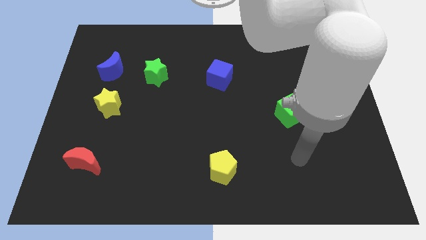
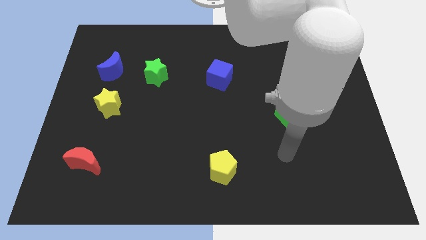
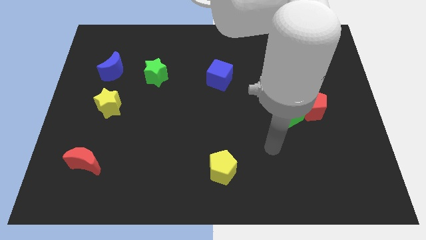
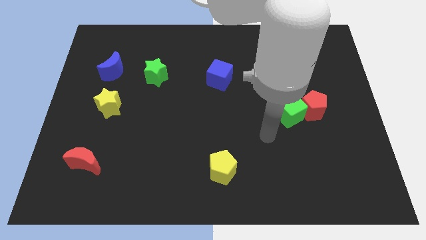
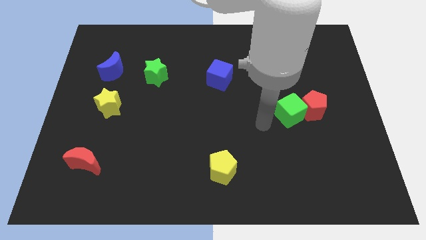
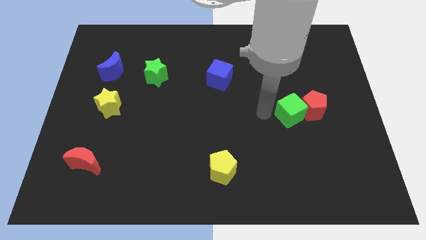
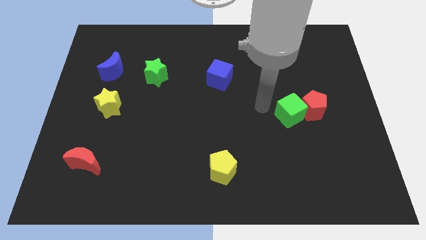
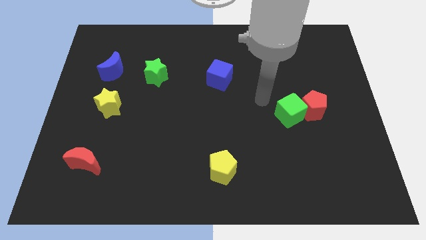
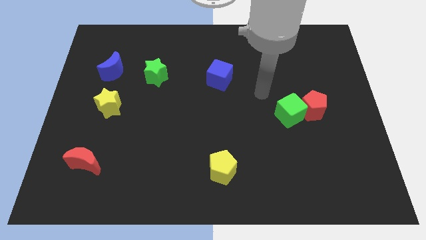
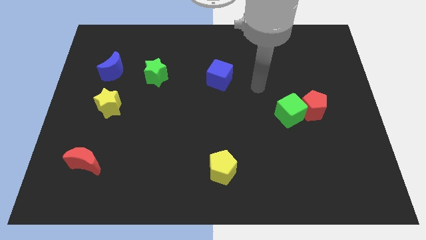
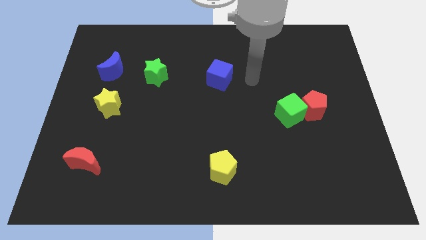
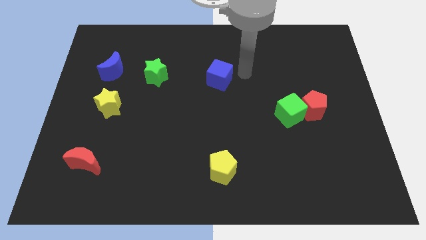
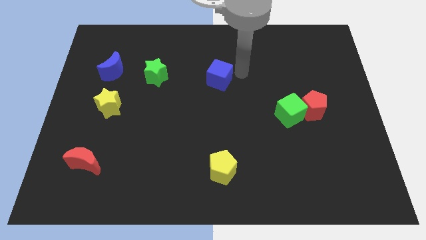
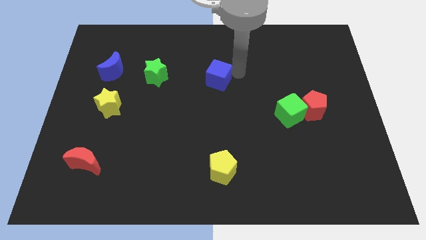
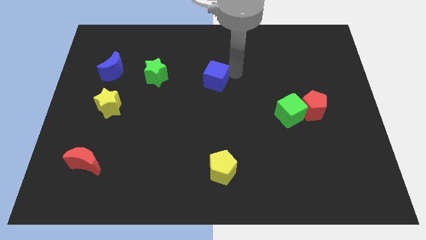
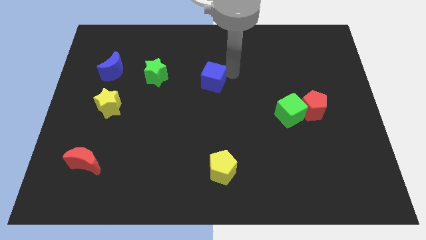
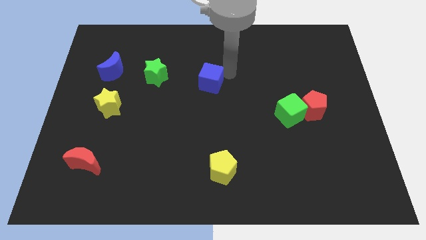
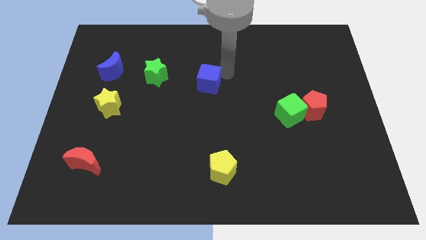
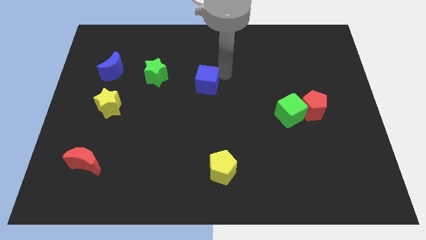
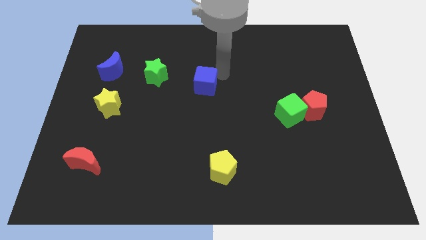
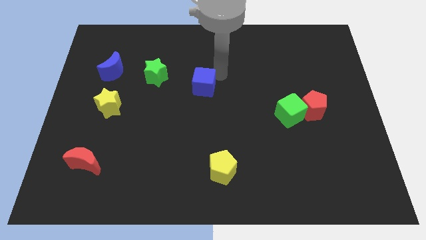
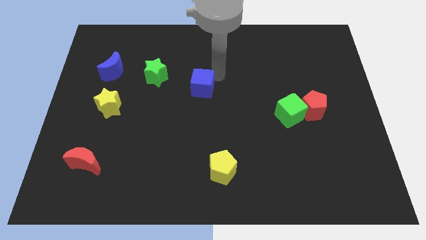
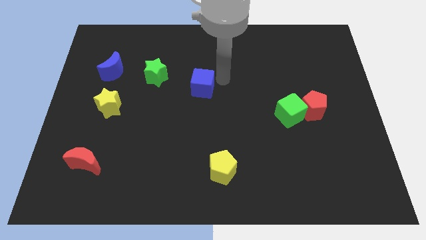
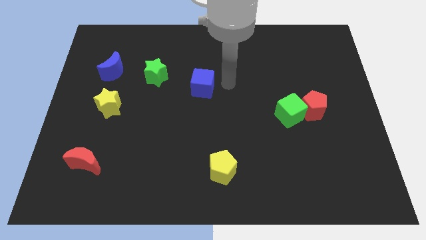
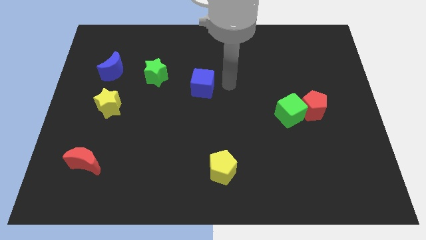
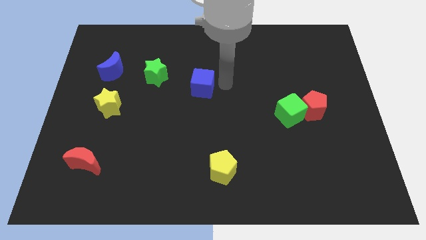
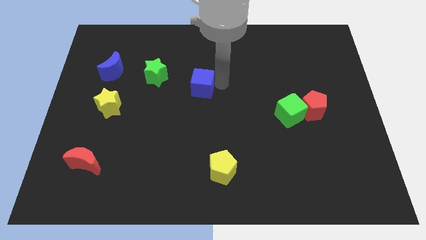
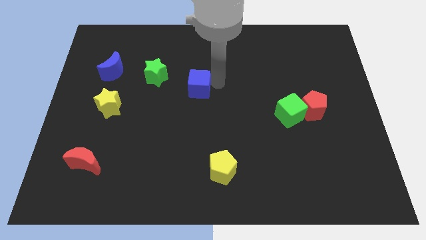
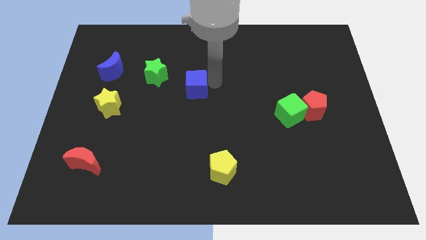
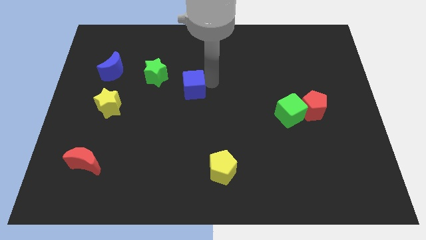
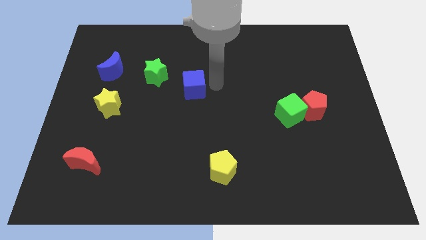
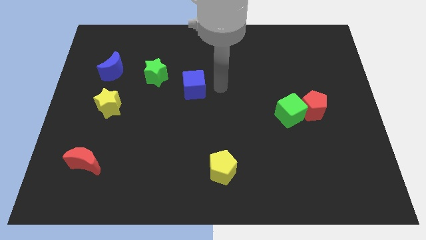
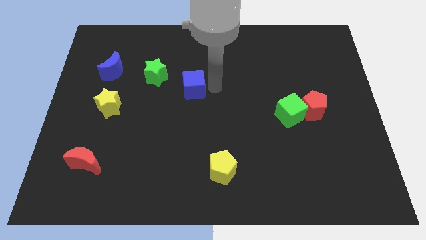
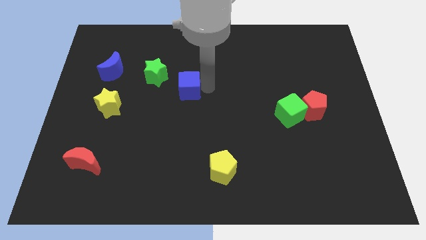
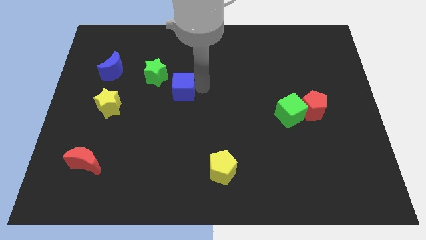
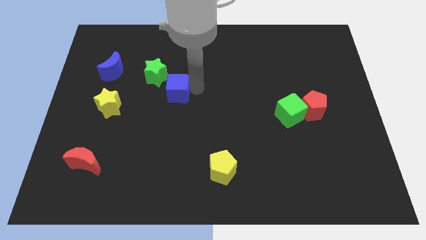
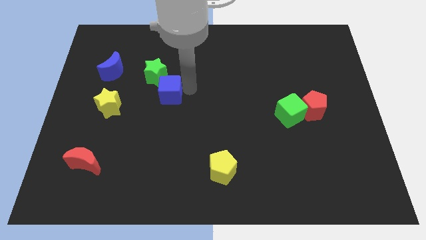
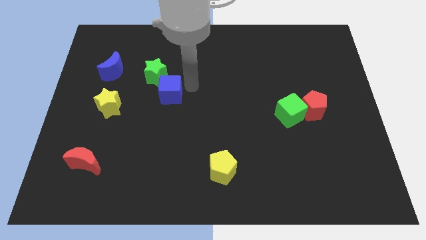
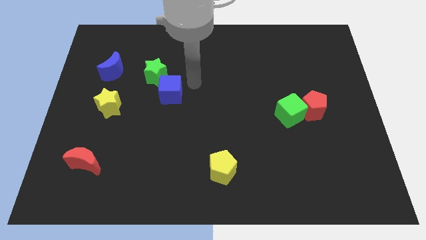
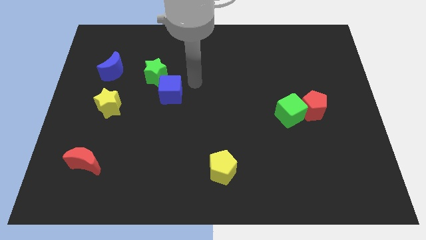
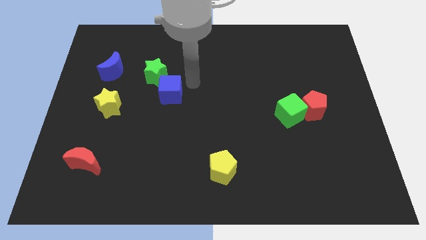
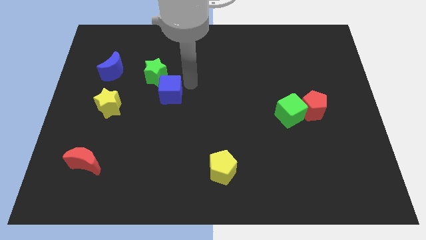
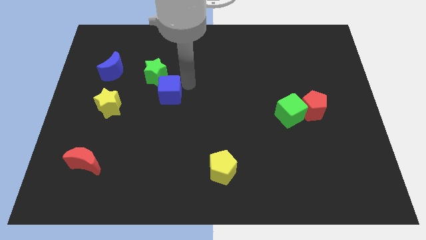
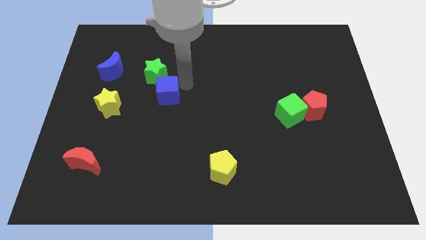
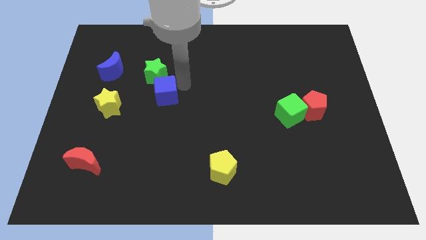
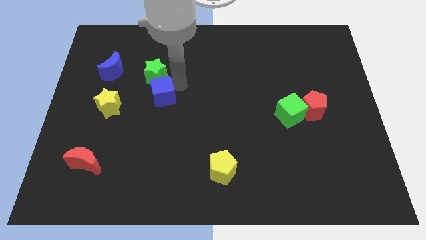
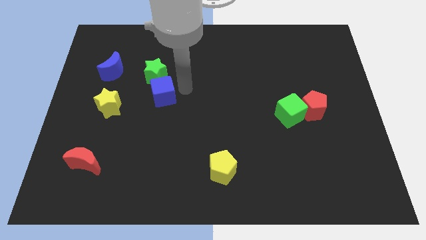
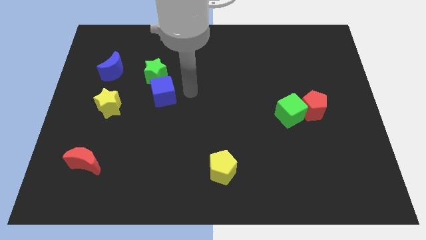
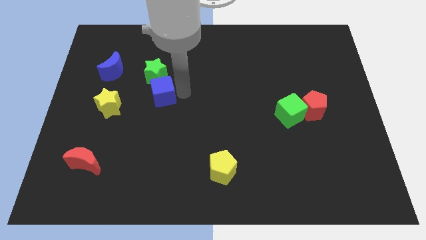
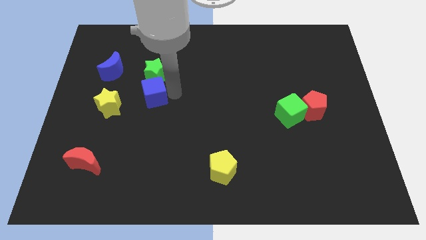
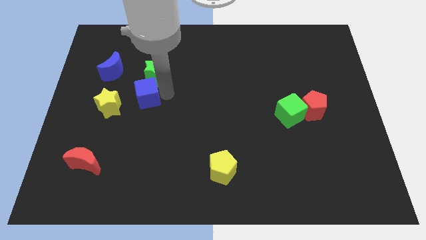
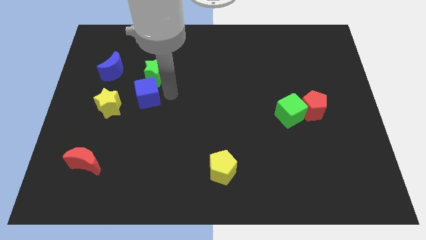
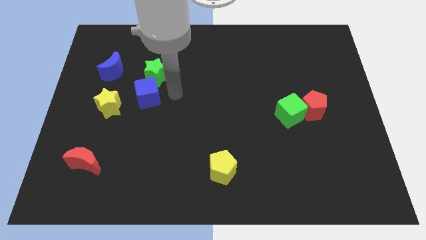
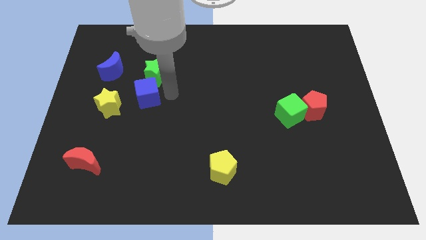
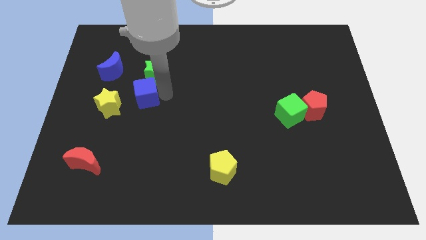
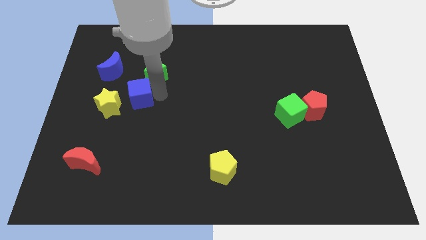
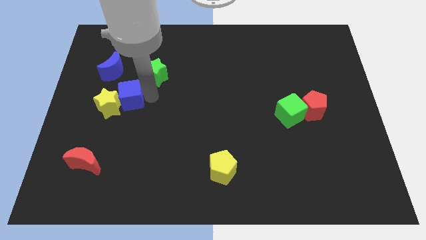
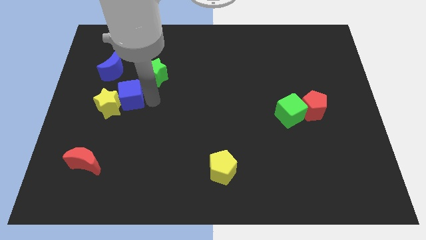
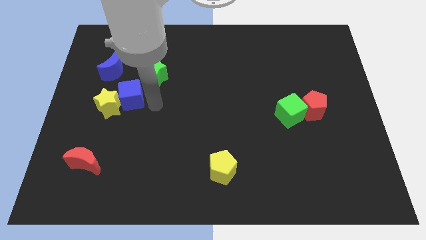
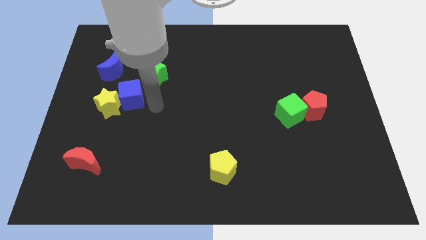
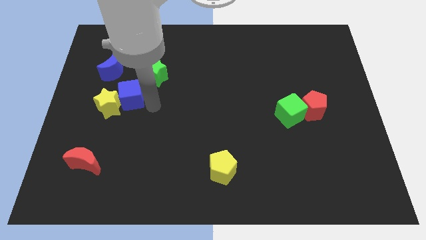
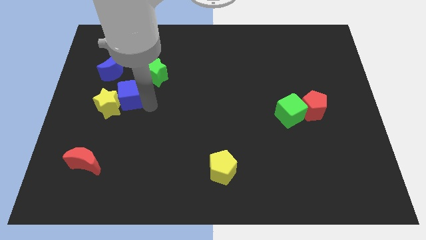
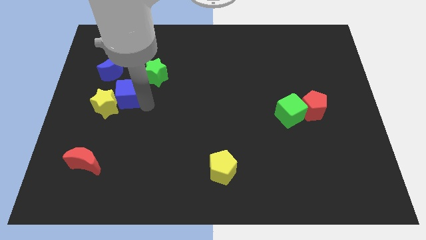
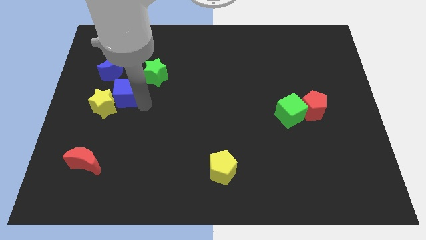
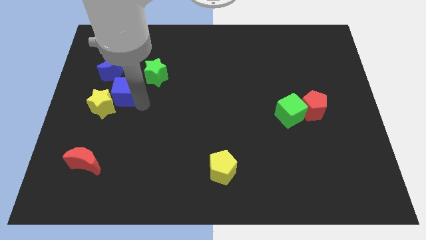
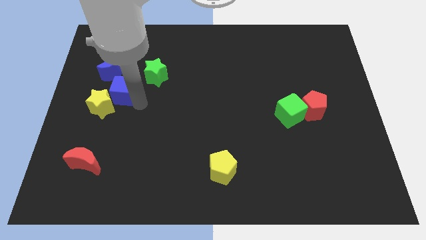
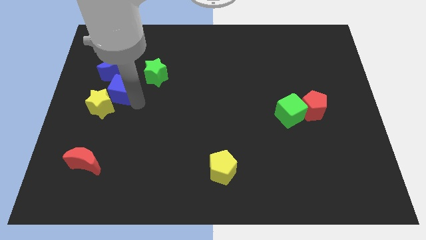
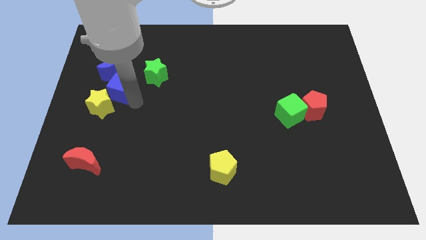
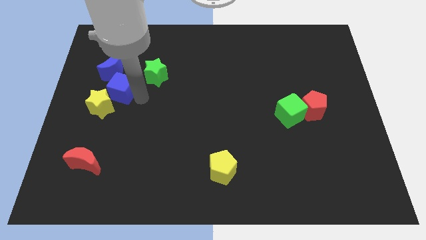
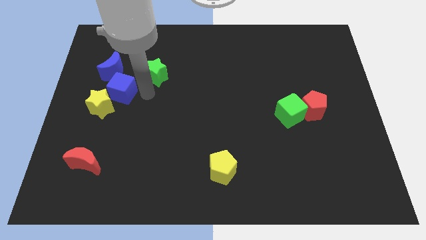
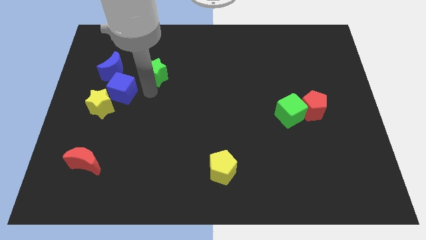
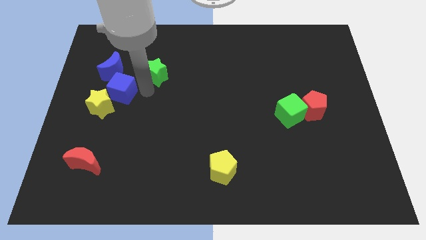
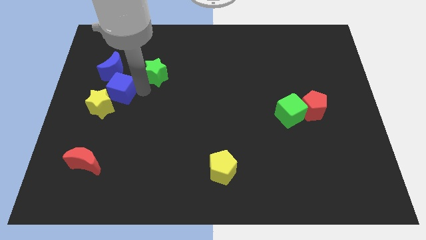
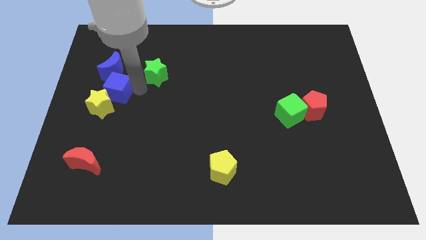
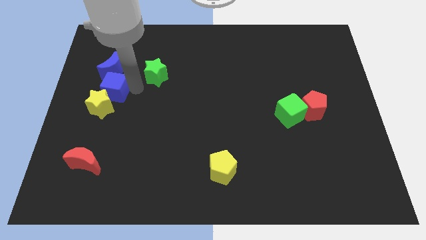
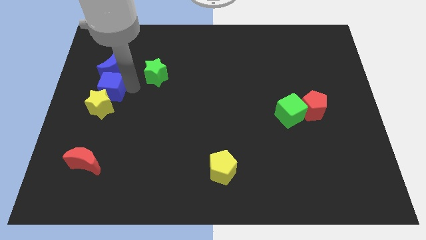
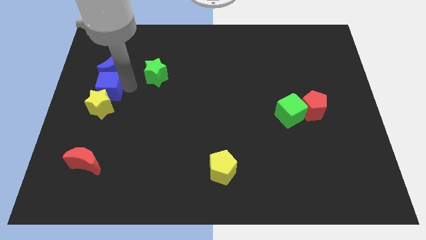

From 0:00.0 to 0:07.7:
slide the blue cube to the left side
